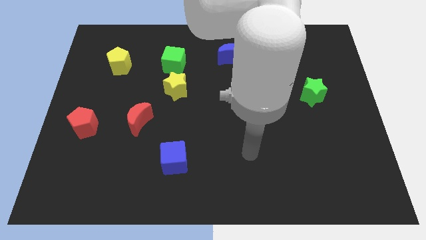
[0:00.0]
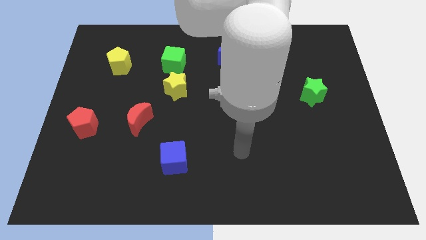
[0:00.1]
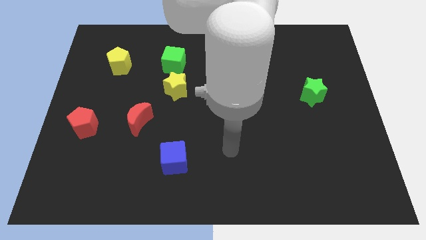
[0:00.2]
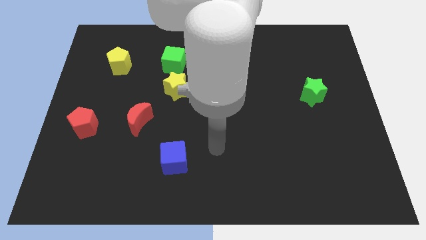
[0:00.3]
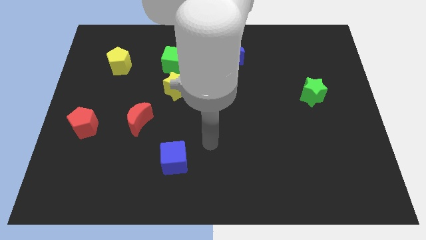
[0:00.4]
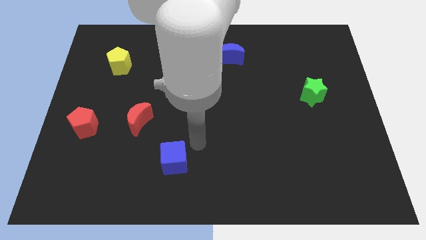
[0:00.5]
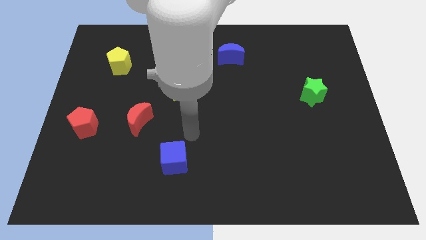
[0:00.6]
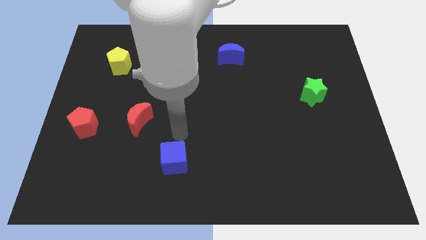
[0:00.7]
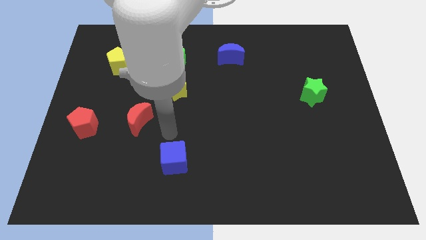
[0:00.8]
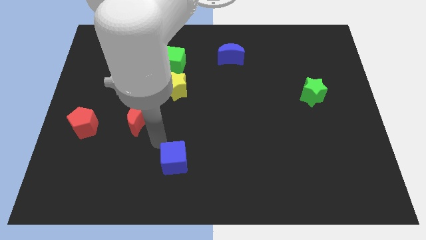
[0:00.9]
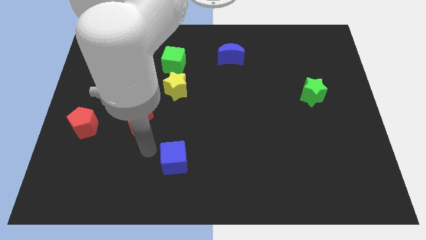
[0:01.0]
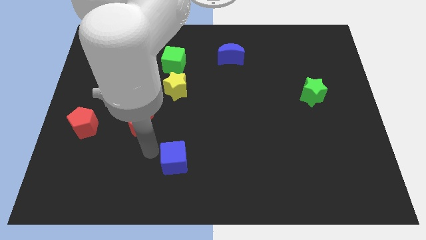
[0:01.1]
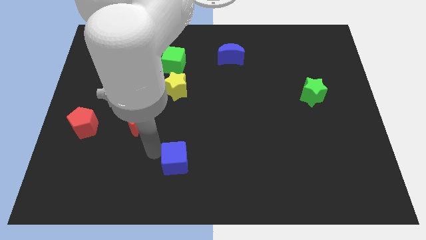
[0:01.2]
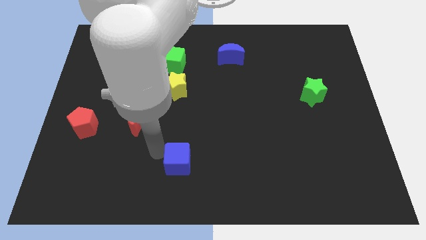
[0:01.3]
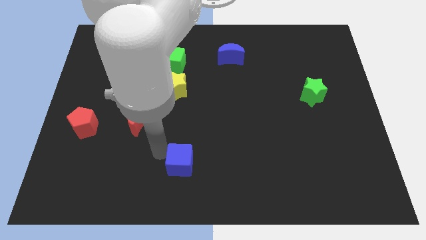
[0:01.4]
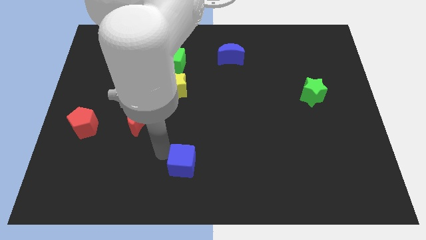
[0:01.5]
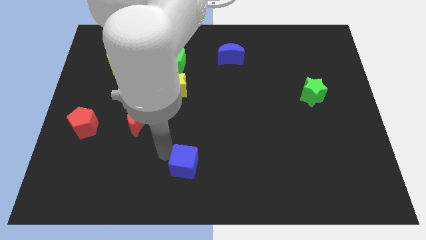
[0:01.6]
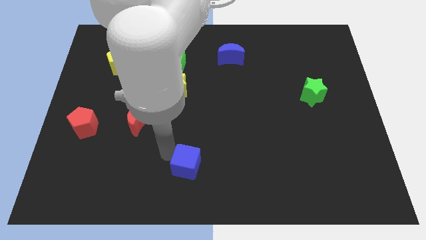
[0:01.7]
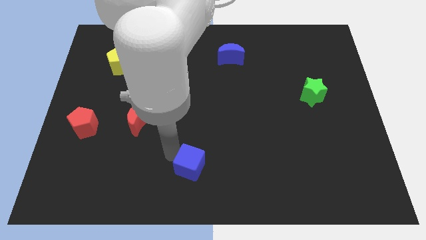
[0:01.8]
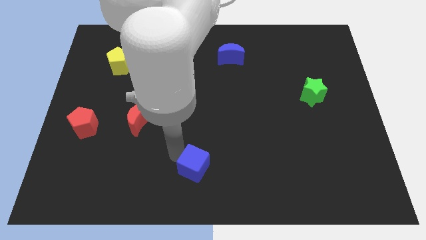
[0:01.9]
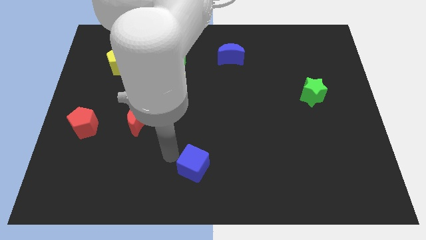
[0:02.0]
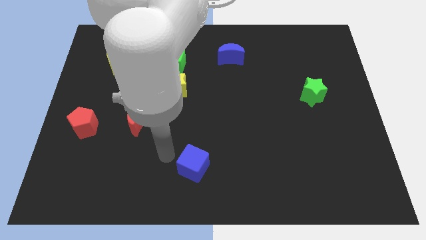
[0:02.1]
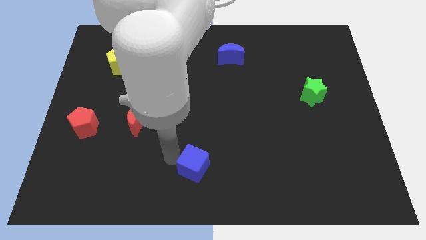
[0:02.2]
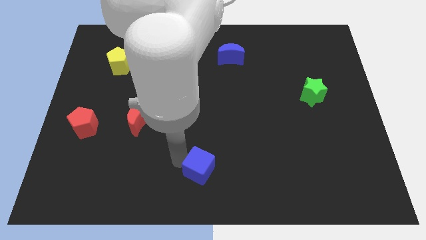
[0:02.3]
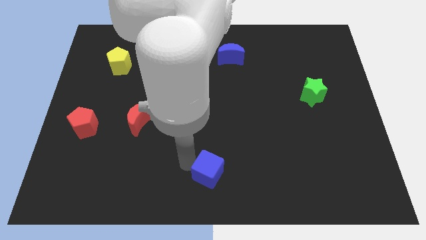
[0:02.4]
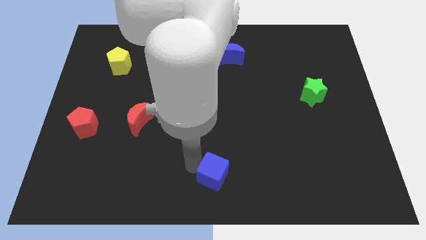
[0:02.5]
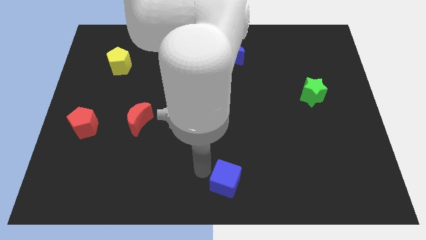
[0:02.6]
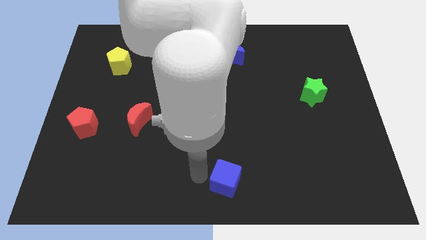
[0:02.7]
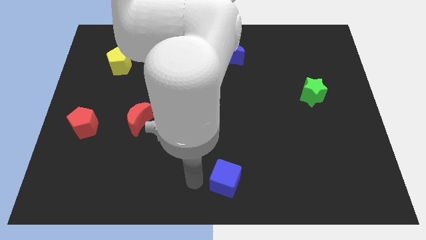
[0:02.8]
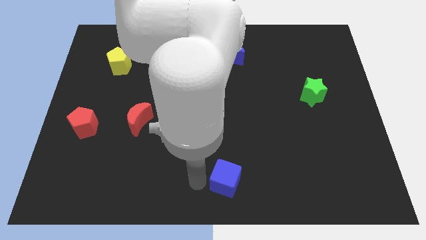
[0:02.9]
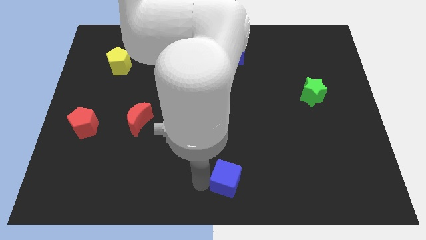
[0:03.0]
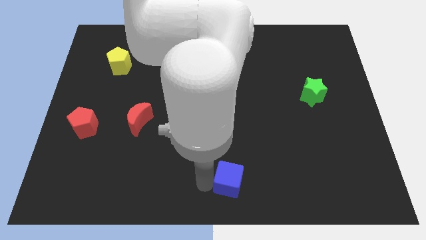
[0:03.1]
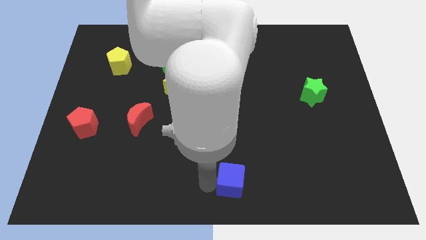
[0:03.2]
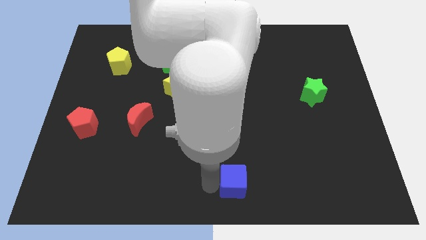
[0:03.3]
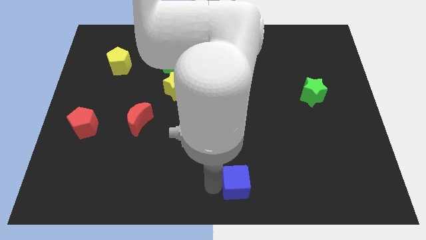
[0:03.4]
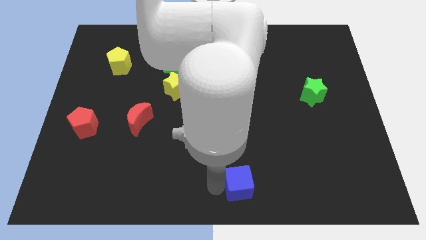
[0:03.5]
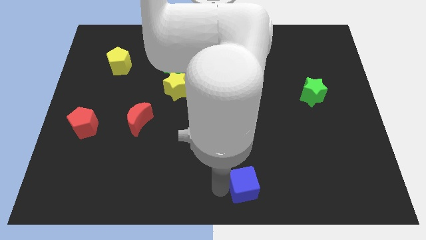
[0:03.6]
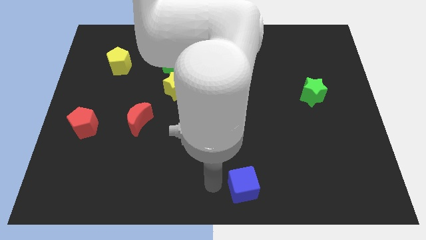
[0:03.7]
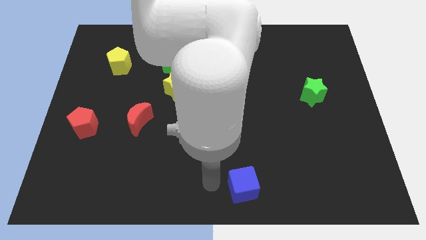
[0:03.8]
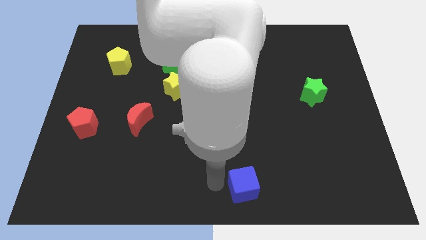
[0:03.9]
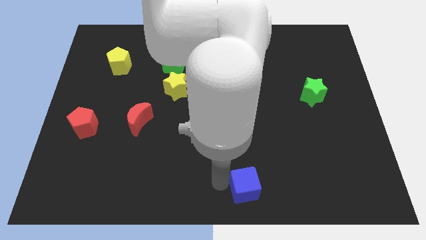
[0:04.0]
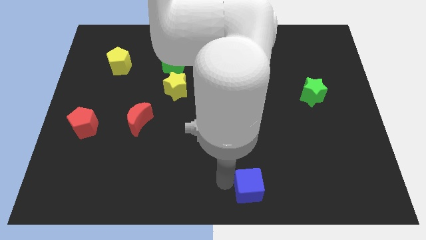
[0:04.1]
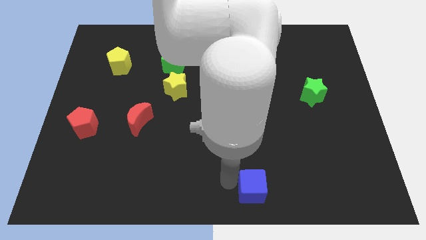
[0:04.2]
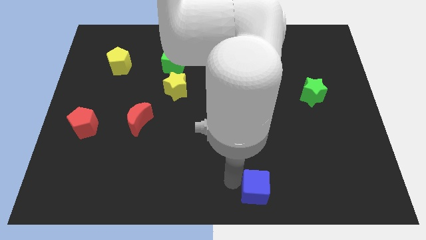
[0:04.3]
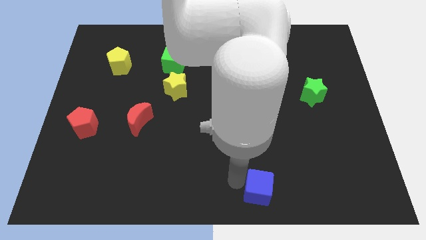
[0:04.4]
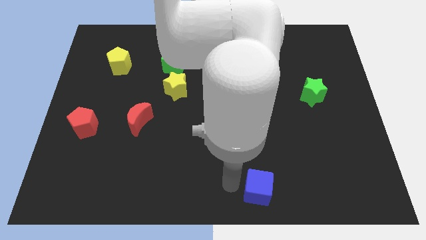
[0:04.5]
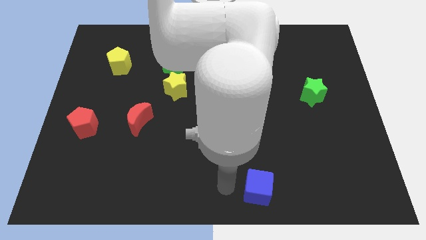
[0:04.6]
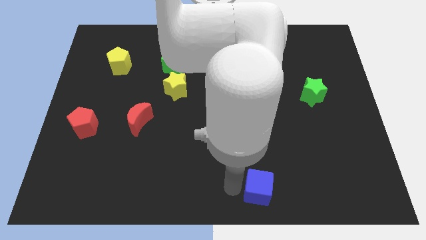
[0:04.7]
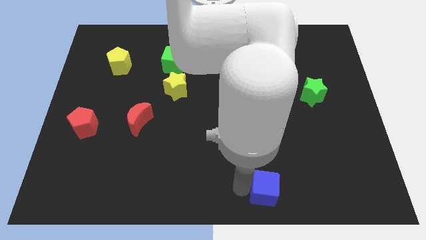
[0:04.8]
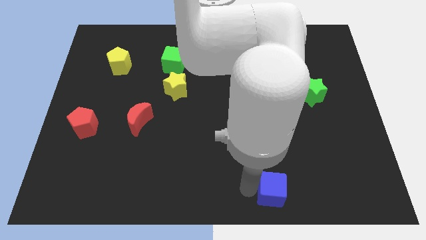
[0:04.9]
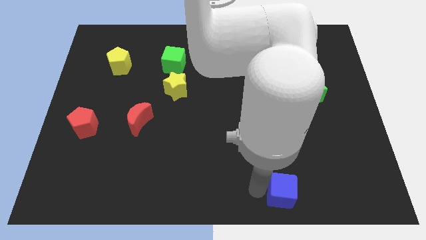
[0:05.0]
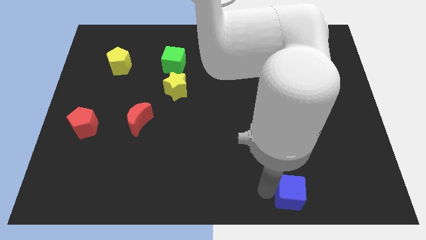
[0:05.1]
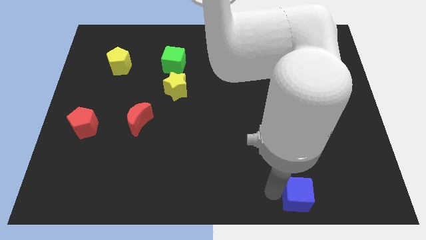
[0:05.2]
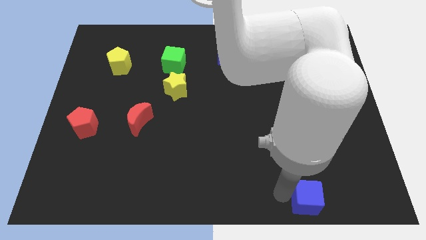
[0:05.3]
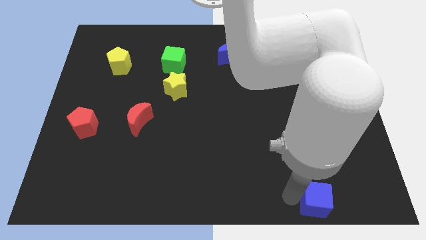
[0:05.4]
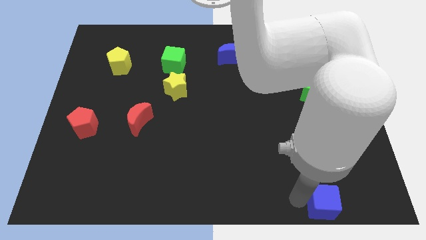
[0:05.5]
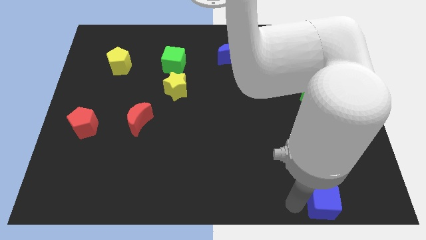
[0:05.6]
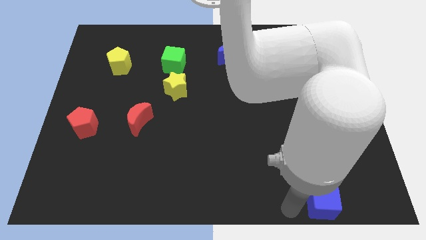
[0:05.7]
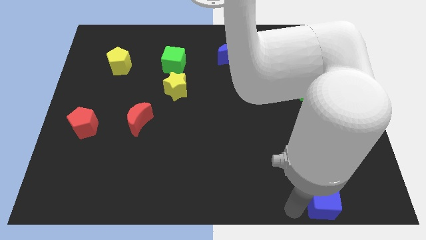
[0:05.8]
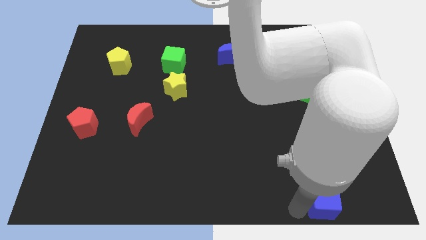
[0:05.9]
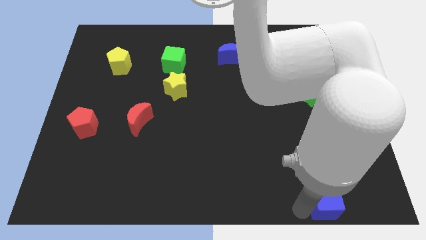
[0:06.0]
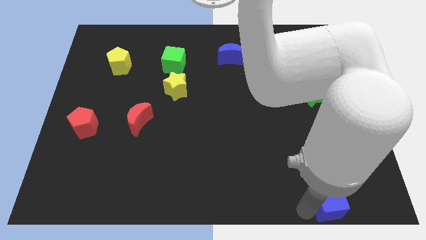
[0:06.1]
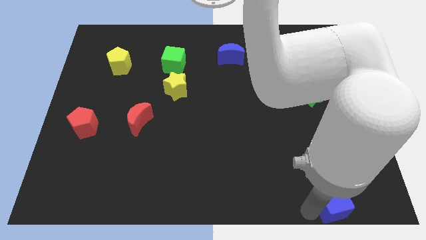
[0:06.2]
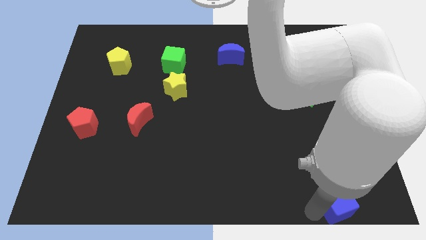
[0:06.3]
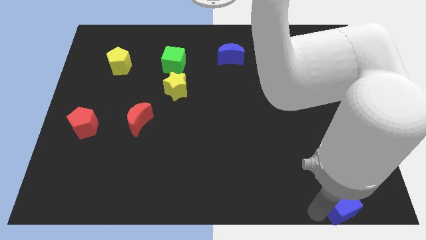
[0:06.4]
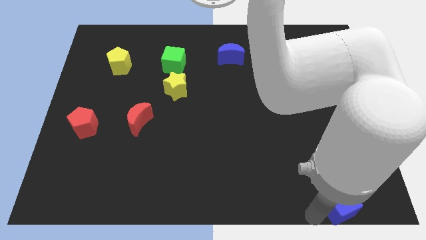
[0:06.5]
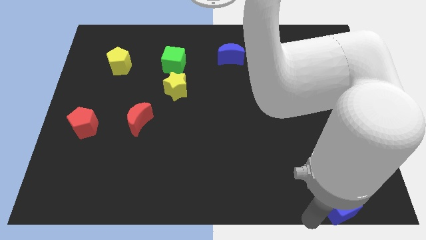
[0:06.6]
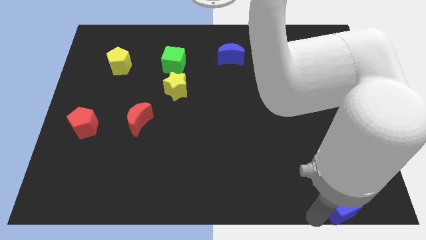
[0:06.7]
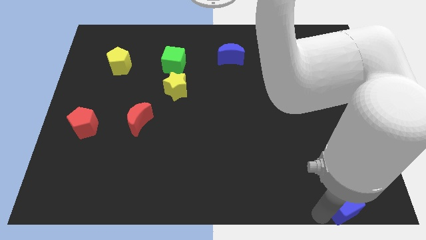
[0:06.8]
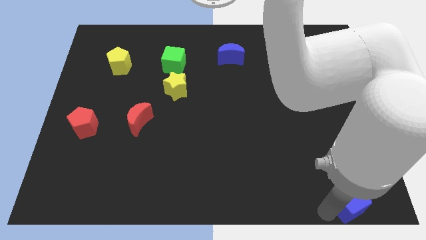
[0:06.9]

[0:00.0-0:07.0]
push the blue cube to the bottom right corner
